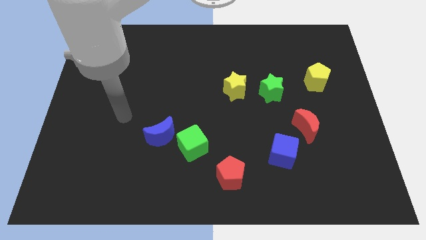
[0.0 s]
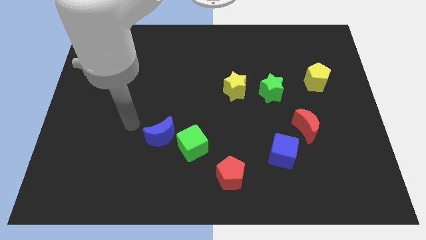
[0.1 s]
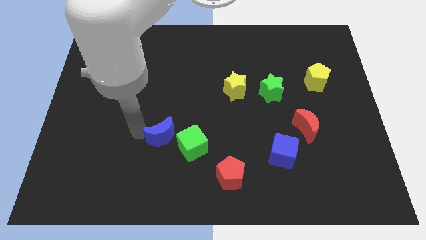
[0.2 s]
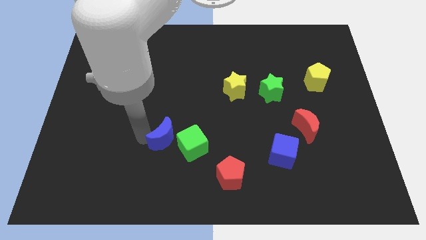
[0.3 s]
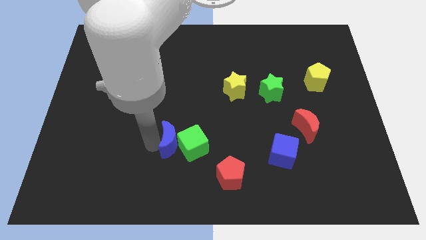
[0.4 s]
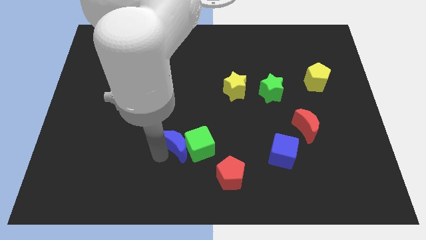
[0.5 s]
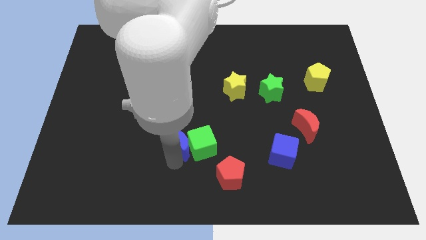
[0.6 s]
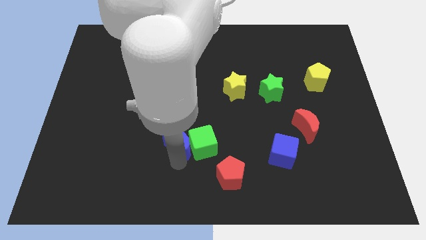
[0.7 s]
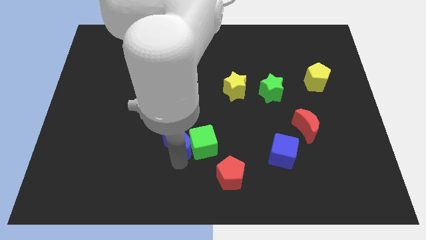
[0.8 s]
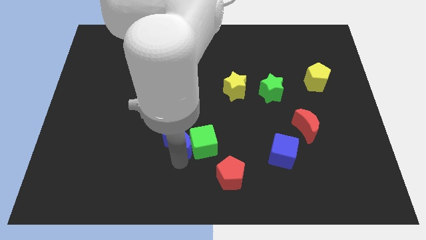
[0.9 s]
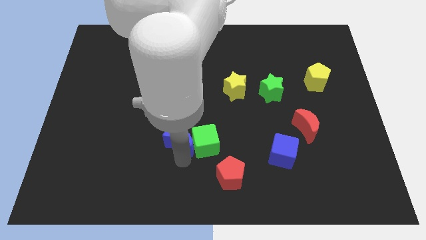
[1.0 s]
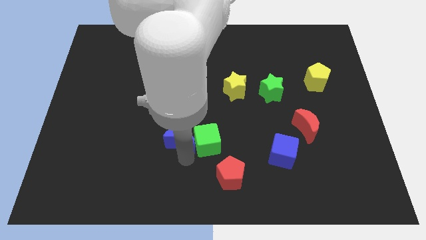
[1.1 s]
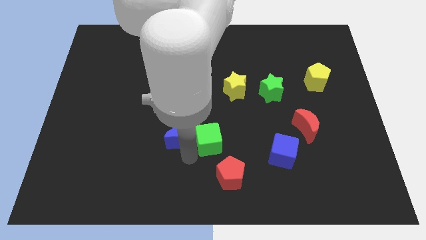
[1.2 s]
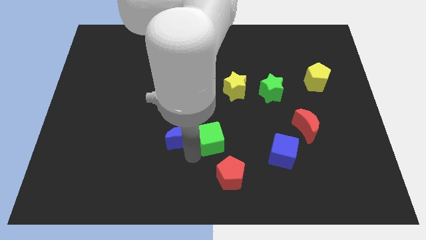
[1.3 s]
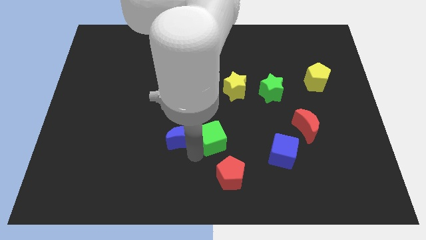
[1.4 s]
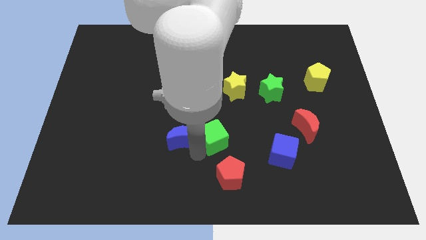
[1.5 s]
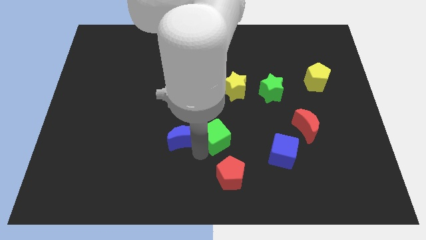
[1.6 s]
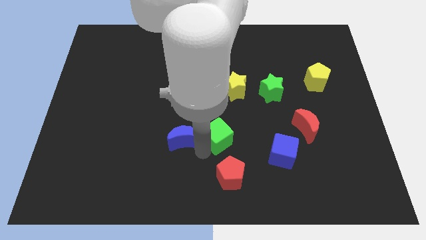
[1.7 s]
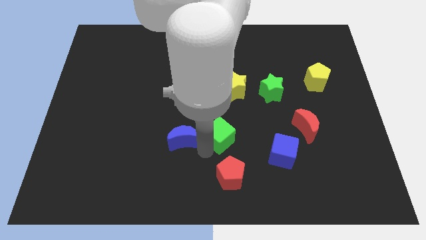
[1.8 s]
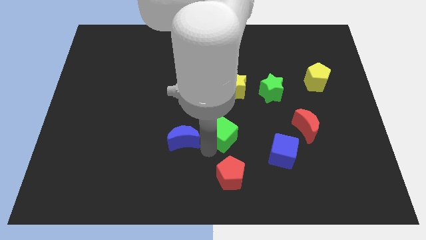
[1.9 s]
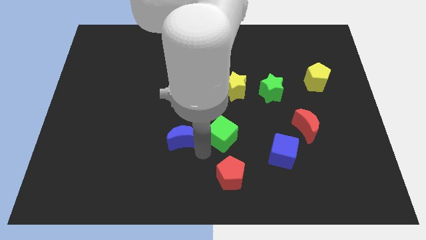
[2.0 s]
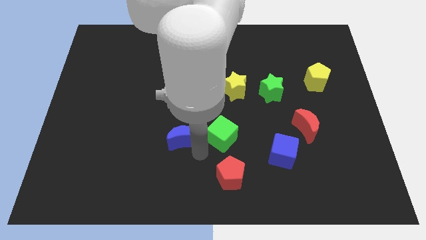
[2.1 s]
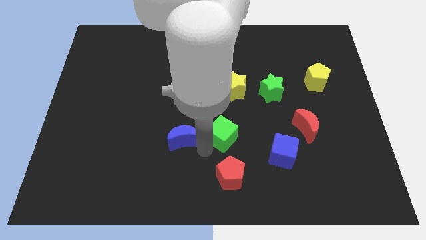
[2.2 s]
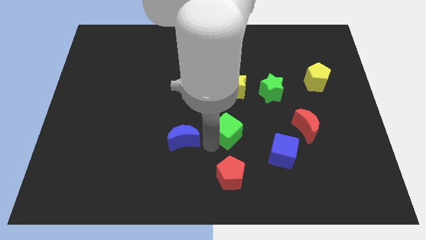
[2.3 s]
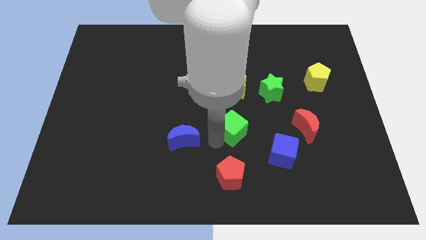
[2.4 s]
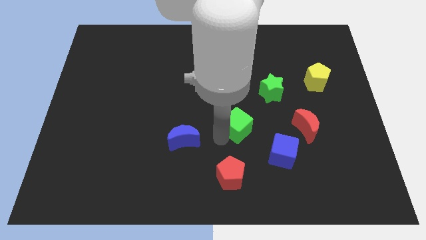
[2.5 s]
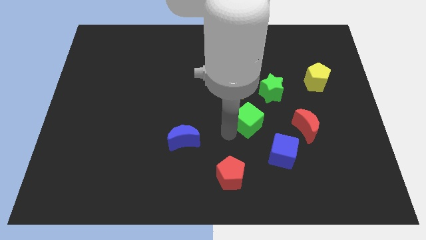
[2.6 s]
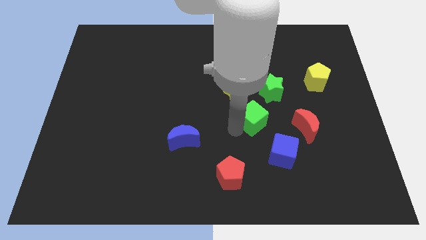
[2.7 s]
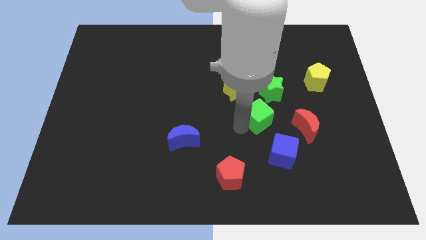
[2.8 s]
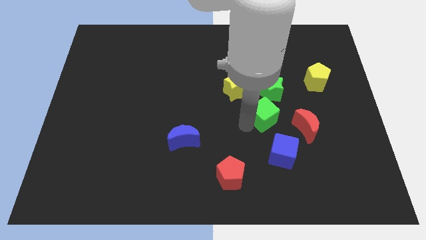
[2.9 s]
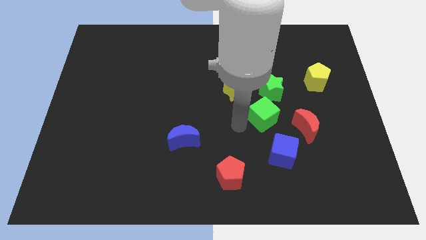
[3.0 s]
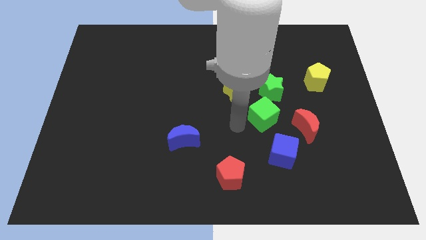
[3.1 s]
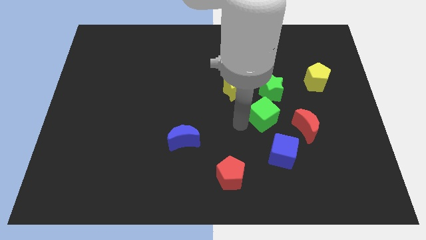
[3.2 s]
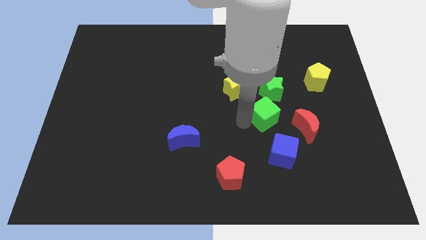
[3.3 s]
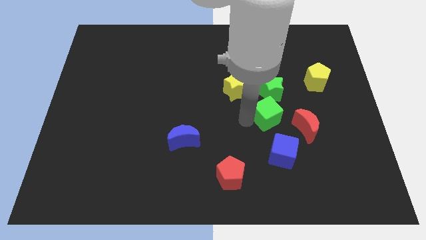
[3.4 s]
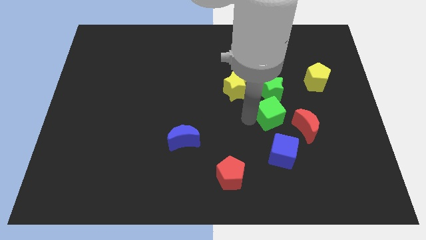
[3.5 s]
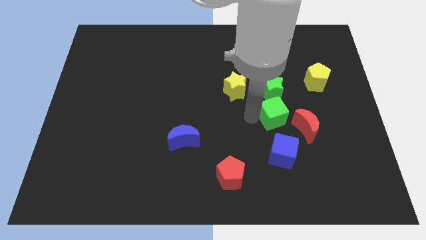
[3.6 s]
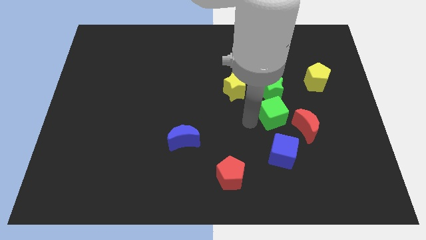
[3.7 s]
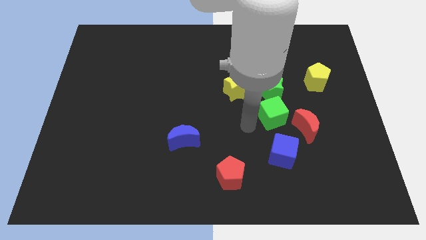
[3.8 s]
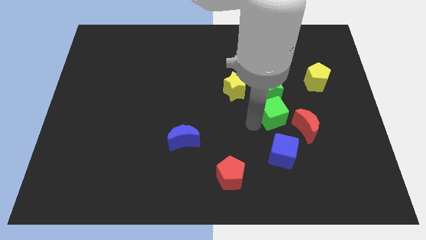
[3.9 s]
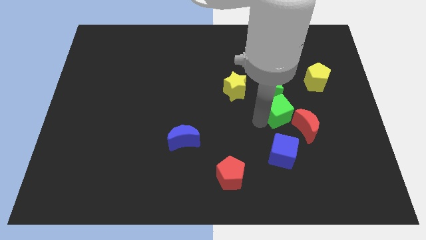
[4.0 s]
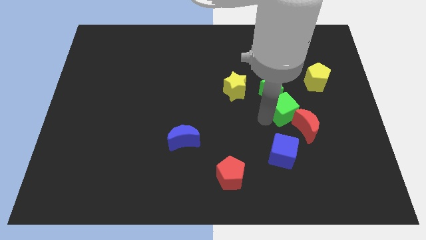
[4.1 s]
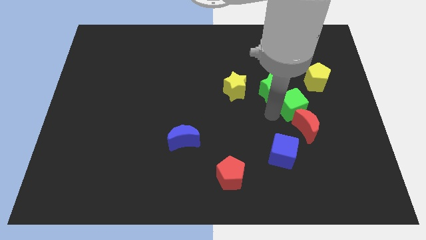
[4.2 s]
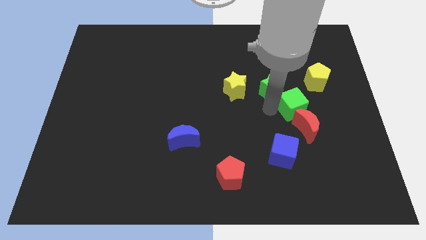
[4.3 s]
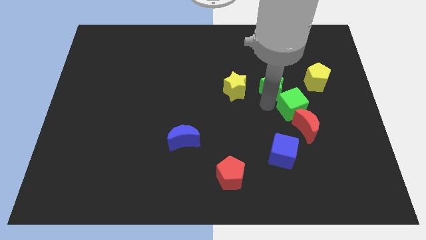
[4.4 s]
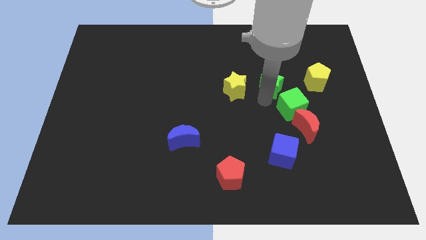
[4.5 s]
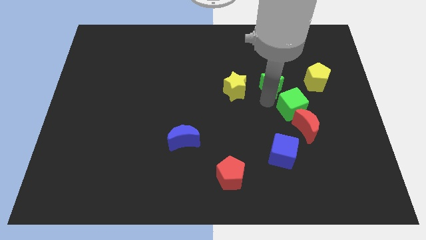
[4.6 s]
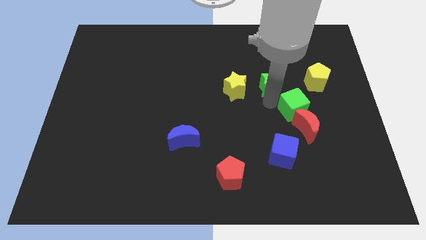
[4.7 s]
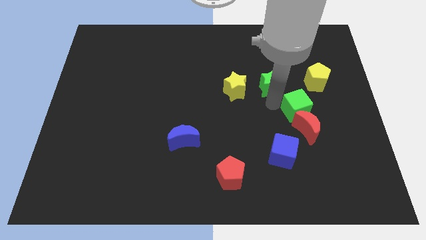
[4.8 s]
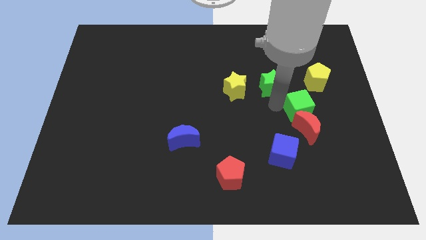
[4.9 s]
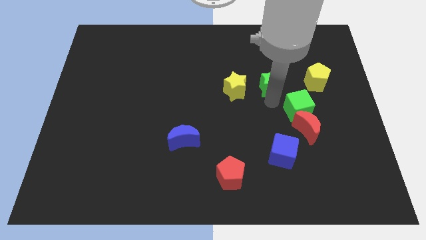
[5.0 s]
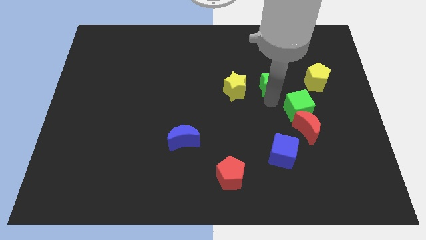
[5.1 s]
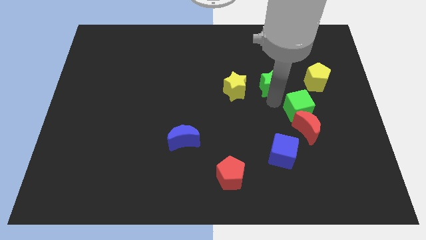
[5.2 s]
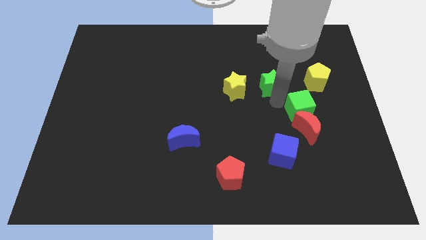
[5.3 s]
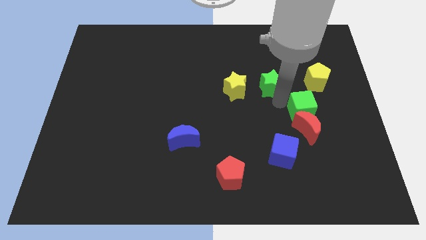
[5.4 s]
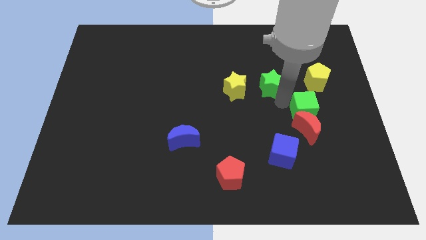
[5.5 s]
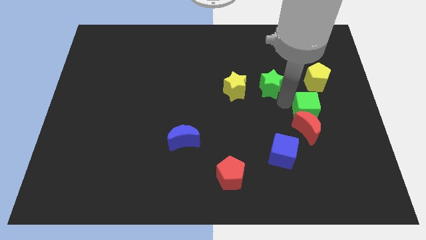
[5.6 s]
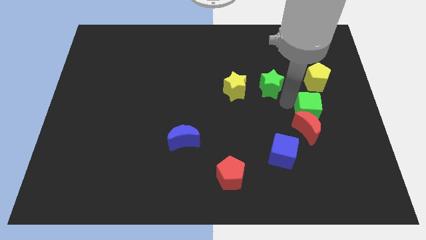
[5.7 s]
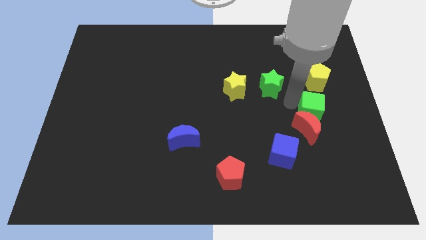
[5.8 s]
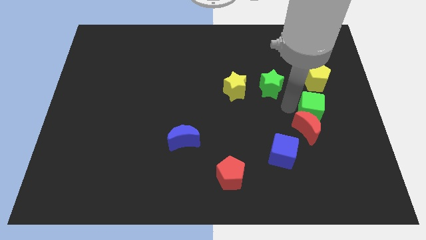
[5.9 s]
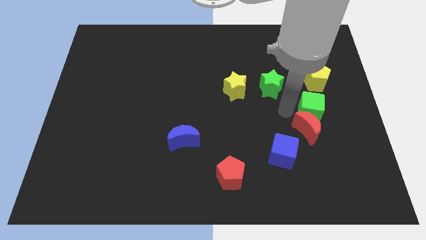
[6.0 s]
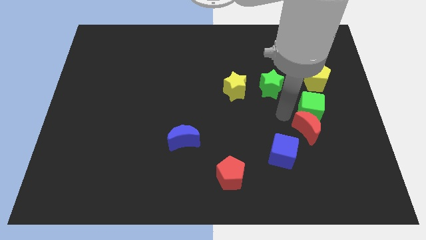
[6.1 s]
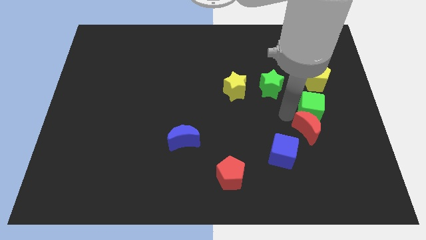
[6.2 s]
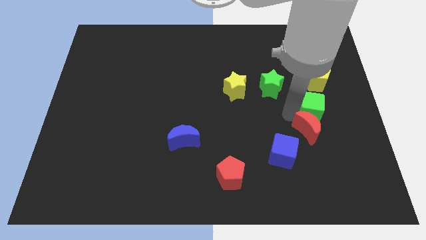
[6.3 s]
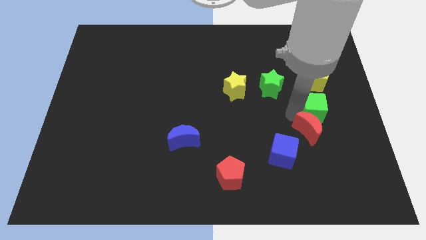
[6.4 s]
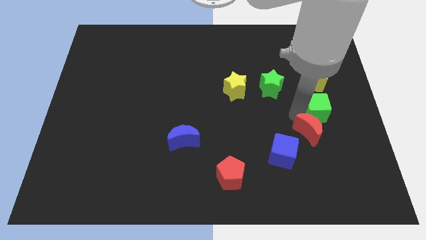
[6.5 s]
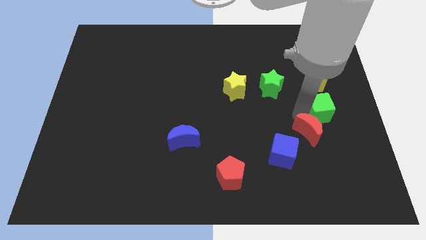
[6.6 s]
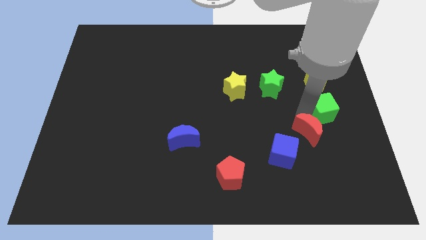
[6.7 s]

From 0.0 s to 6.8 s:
push the green cube to the right side of the board
